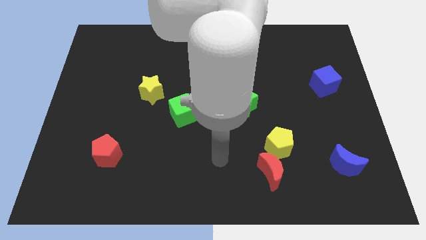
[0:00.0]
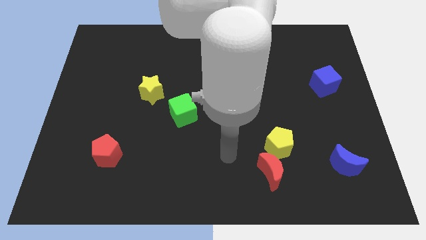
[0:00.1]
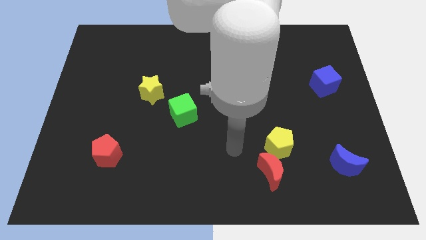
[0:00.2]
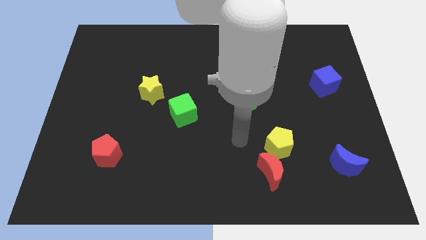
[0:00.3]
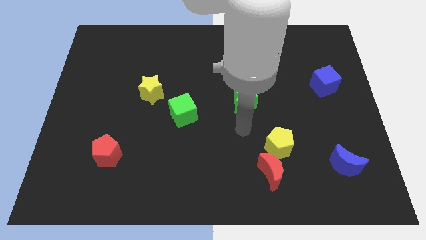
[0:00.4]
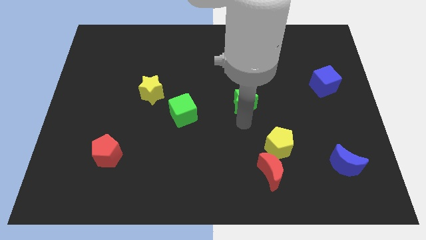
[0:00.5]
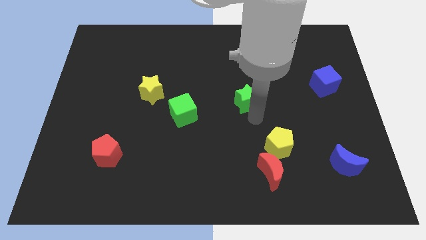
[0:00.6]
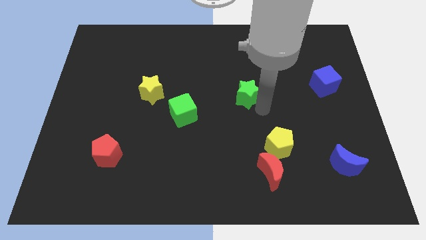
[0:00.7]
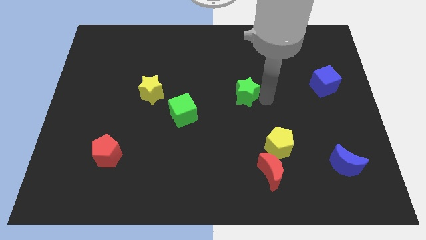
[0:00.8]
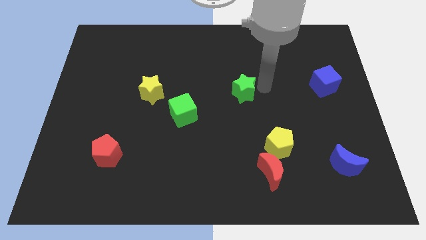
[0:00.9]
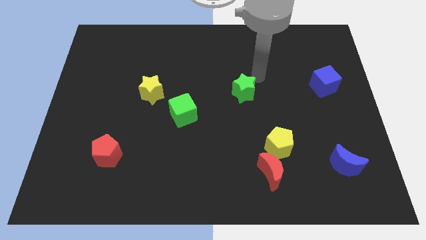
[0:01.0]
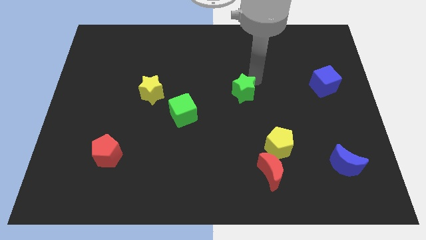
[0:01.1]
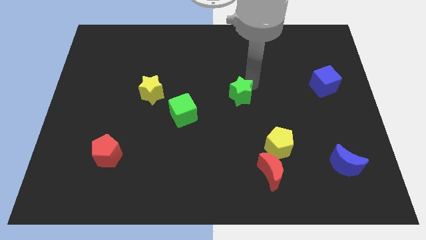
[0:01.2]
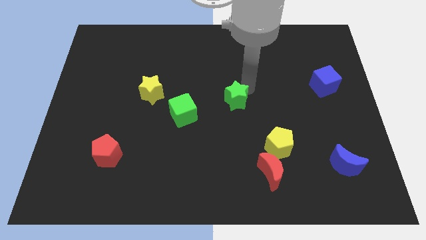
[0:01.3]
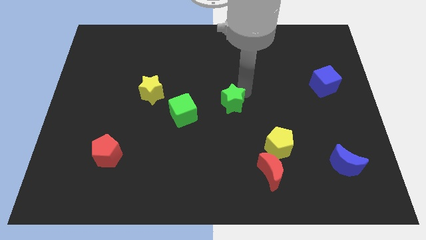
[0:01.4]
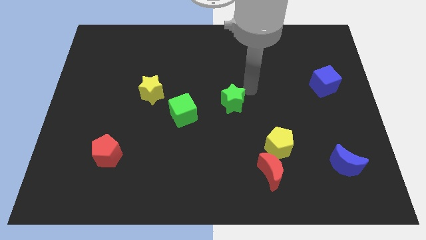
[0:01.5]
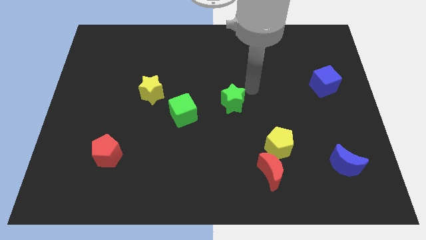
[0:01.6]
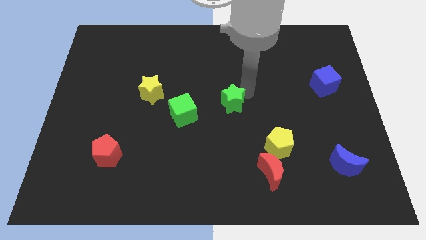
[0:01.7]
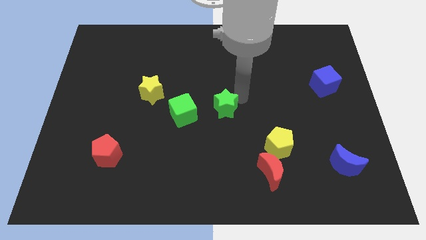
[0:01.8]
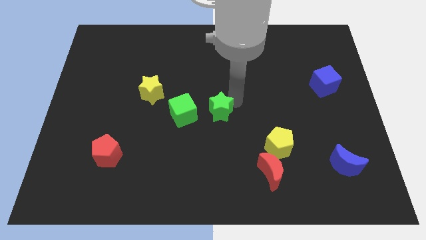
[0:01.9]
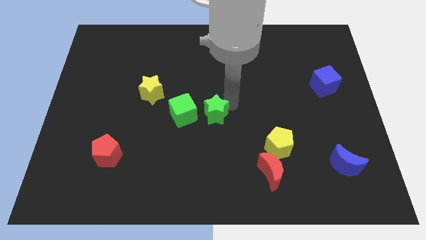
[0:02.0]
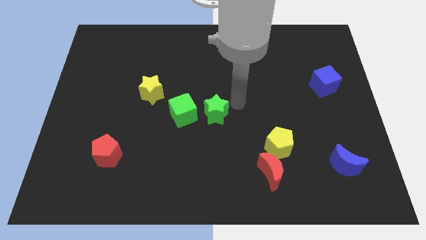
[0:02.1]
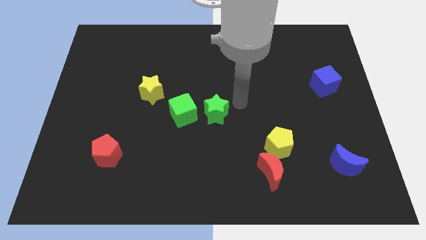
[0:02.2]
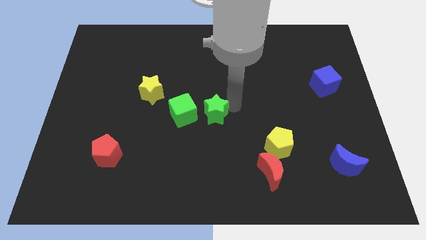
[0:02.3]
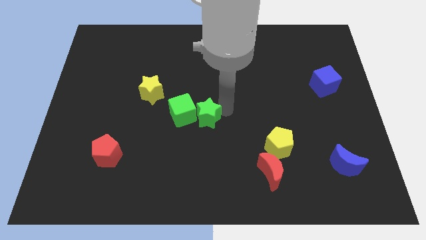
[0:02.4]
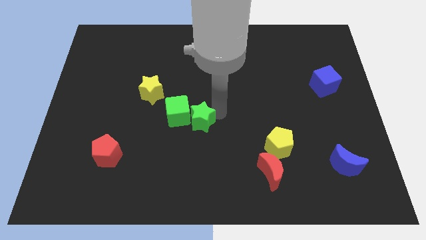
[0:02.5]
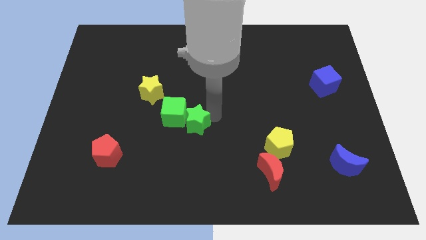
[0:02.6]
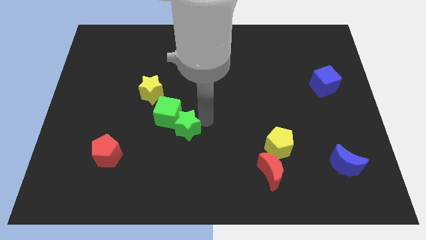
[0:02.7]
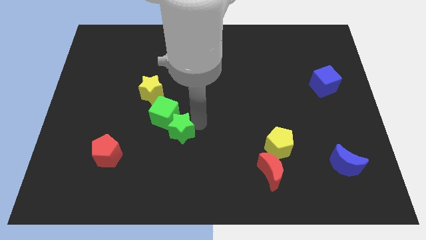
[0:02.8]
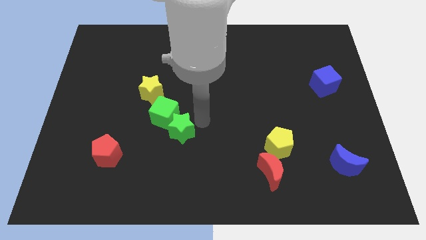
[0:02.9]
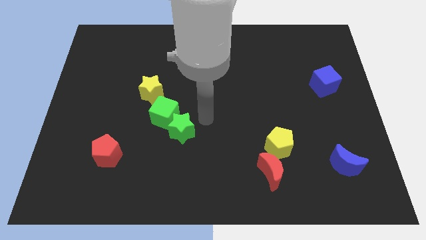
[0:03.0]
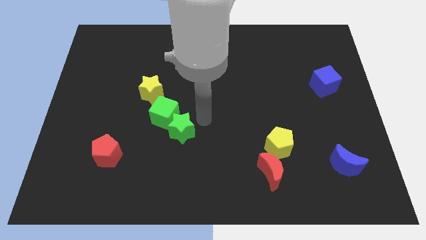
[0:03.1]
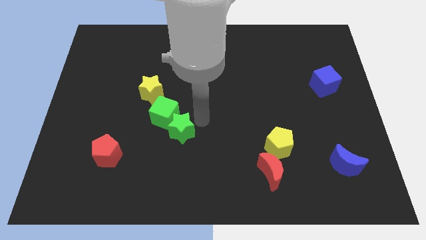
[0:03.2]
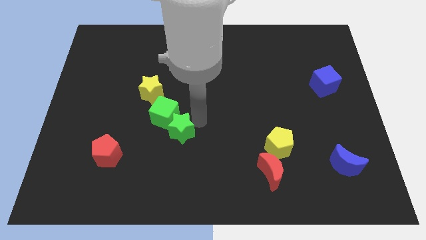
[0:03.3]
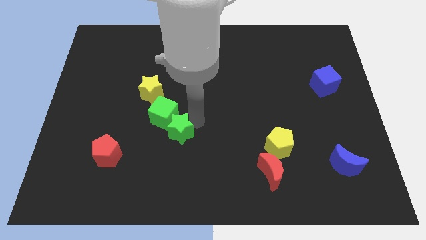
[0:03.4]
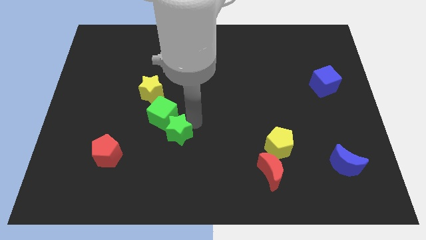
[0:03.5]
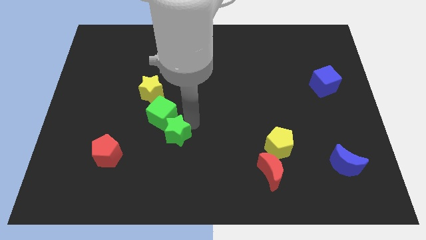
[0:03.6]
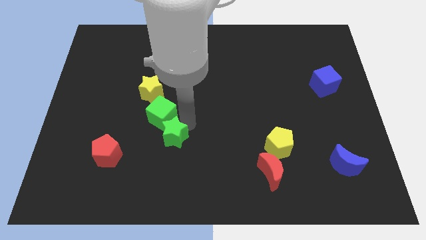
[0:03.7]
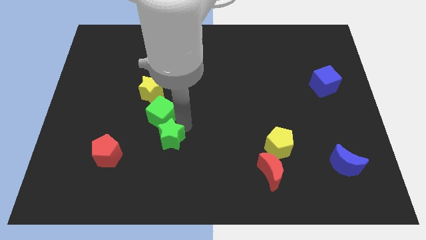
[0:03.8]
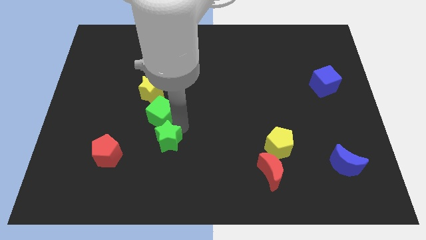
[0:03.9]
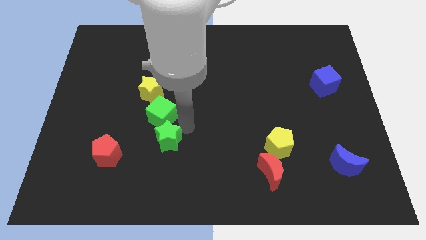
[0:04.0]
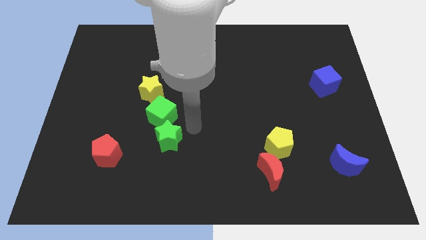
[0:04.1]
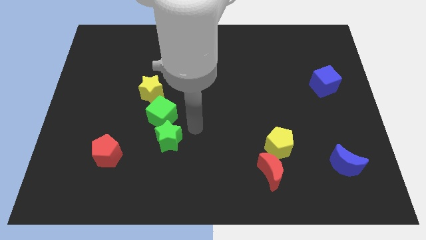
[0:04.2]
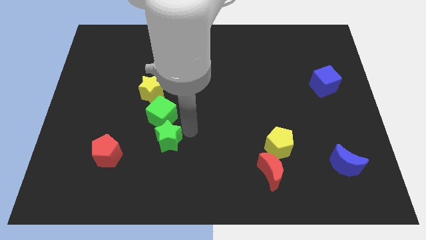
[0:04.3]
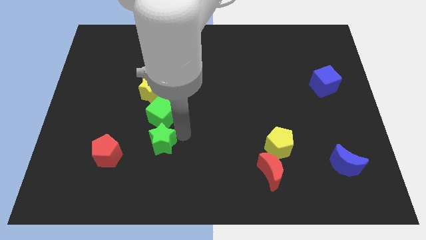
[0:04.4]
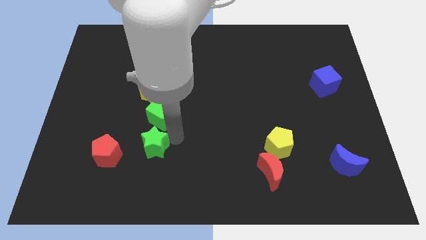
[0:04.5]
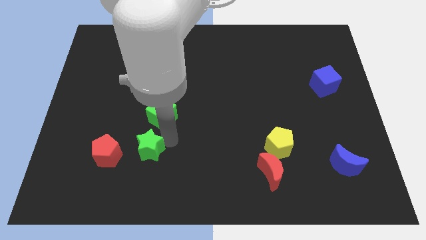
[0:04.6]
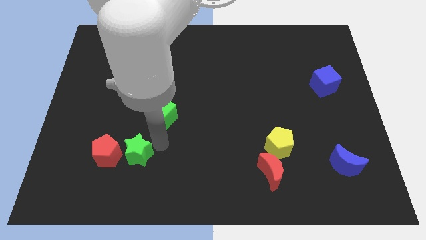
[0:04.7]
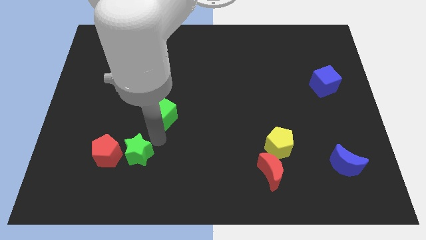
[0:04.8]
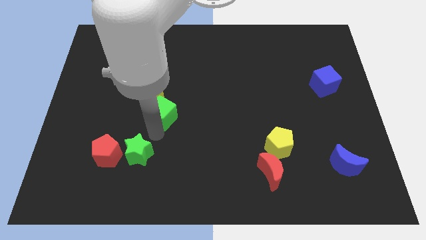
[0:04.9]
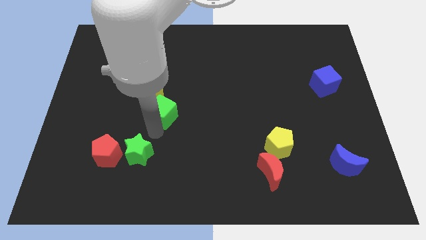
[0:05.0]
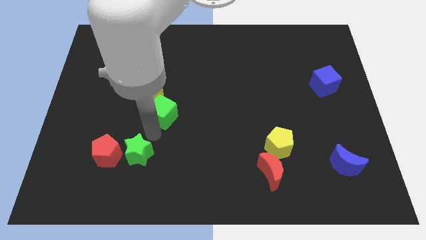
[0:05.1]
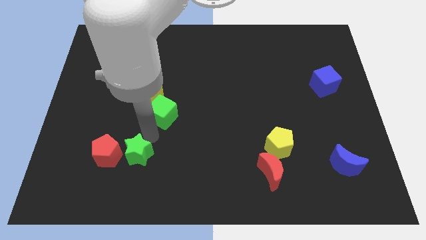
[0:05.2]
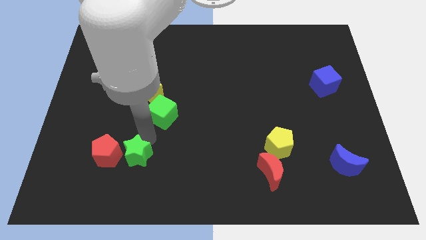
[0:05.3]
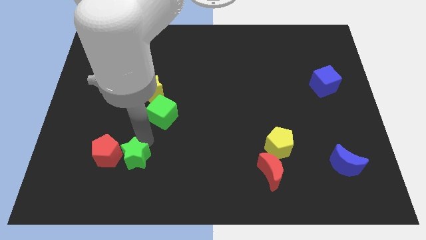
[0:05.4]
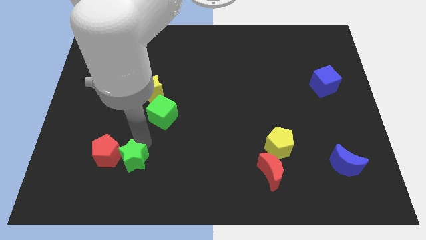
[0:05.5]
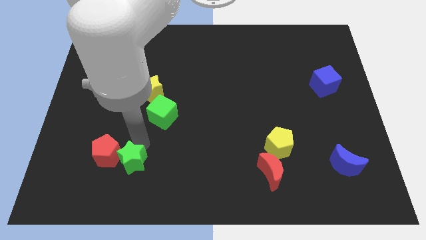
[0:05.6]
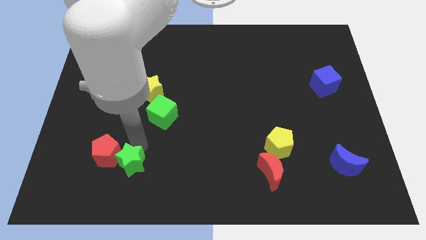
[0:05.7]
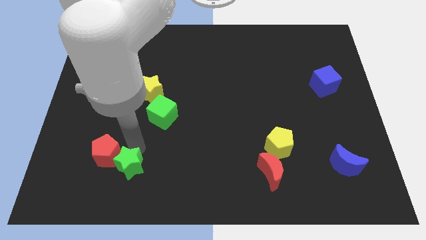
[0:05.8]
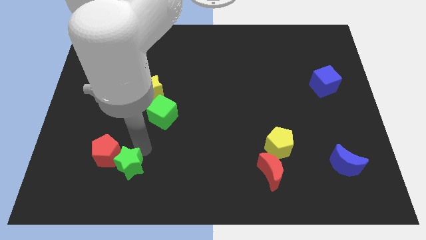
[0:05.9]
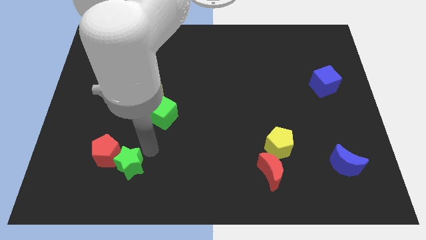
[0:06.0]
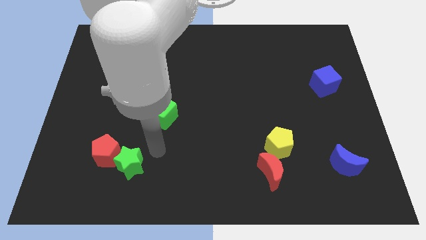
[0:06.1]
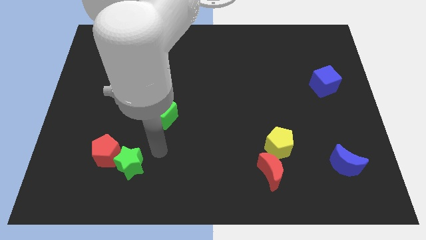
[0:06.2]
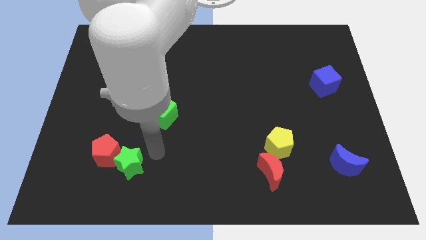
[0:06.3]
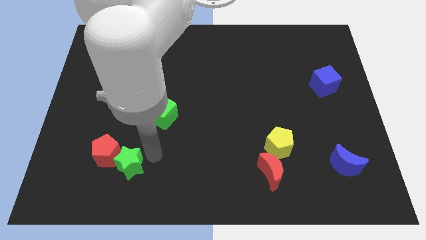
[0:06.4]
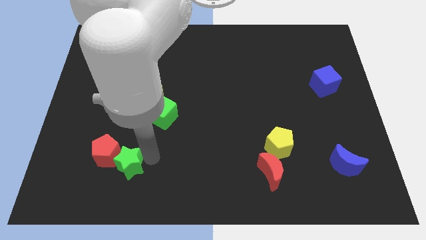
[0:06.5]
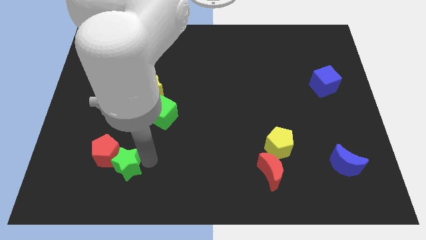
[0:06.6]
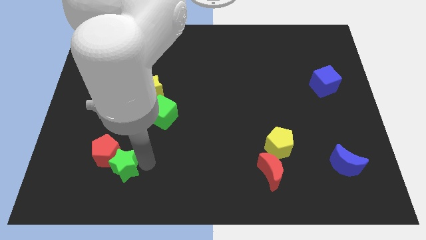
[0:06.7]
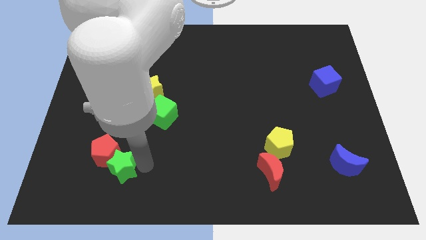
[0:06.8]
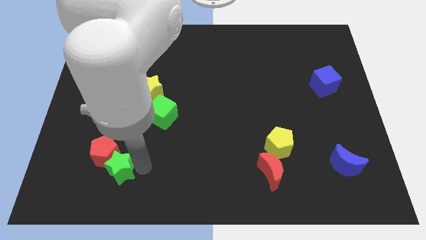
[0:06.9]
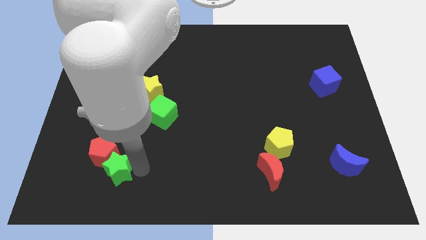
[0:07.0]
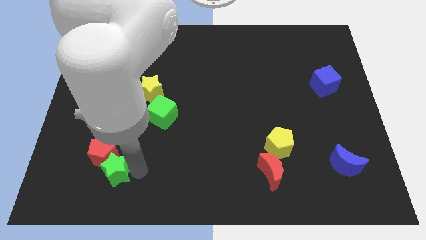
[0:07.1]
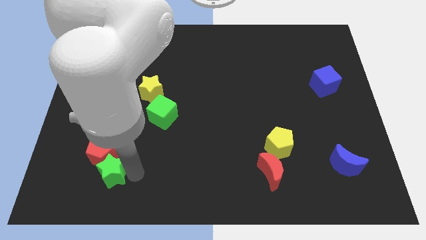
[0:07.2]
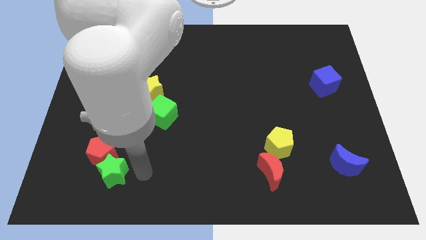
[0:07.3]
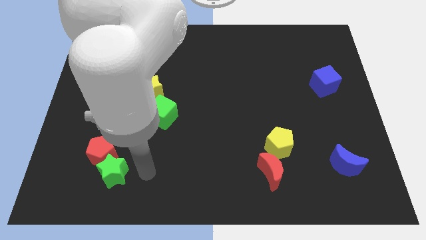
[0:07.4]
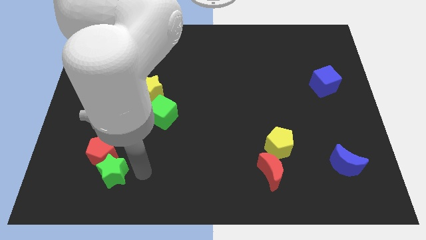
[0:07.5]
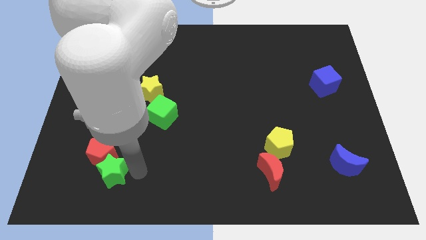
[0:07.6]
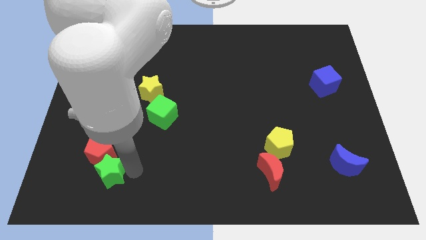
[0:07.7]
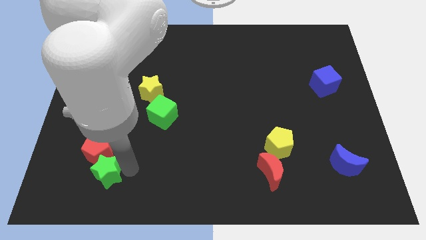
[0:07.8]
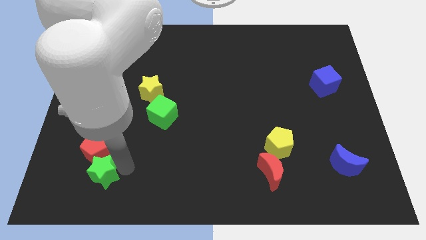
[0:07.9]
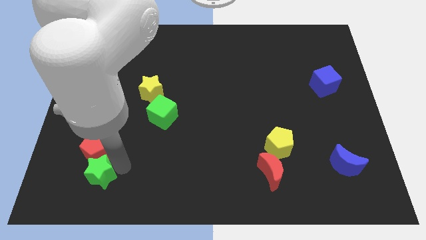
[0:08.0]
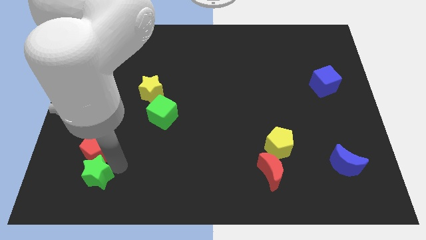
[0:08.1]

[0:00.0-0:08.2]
push the green star diagonally down and to the left of the red pentagon
